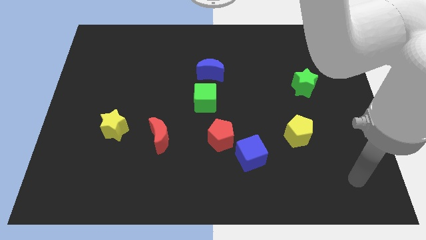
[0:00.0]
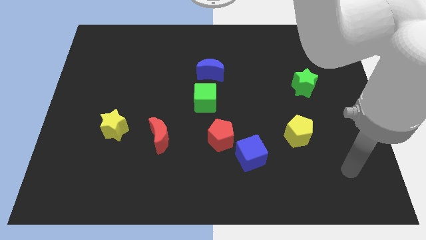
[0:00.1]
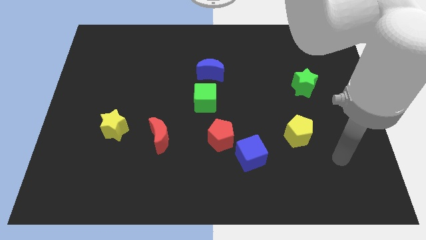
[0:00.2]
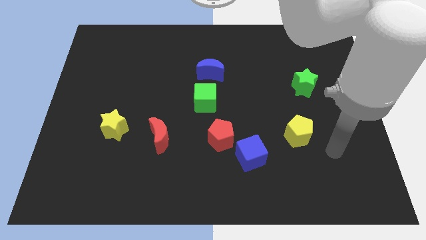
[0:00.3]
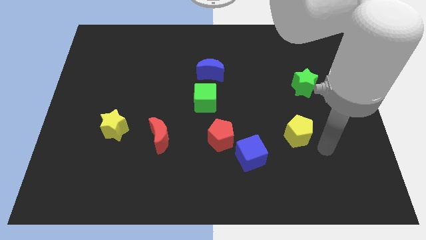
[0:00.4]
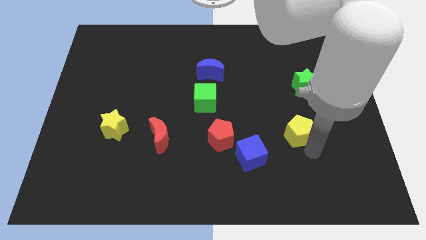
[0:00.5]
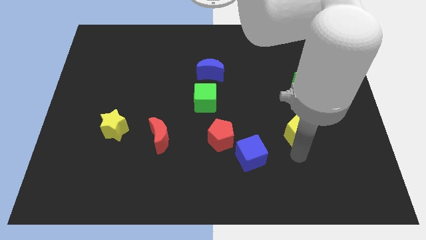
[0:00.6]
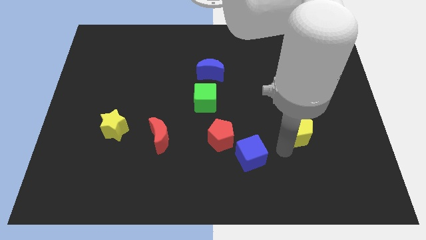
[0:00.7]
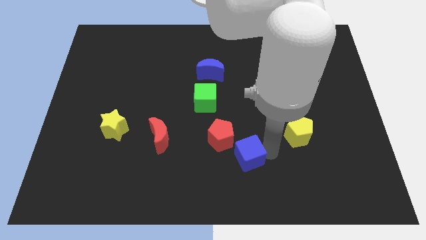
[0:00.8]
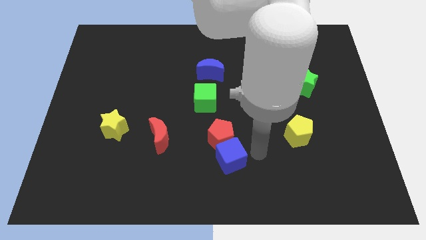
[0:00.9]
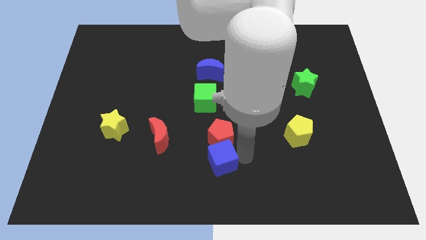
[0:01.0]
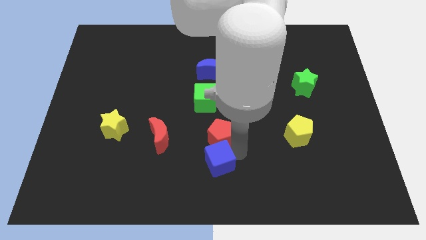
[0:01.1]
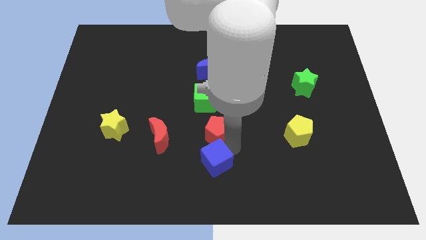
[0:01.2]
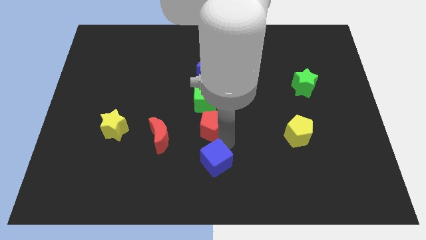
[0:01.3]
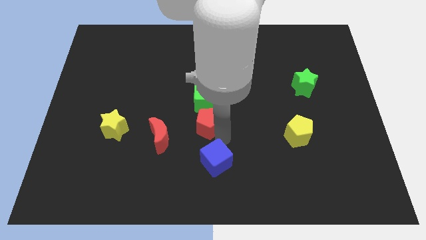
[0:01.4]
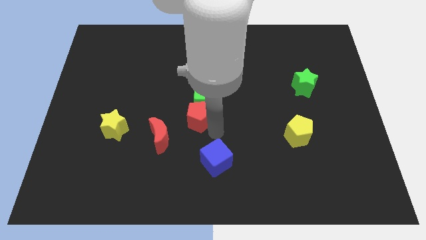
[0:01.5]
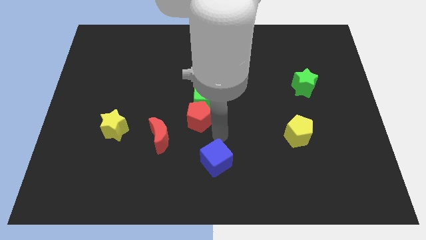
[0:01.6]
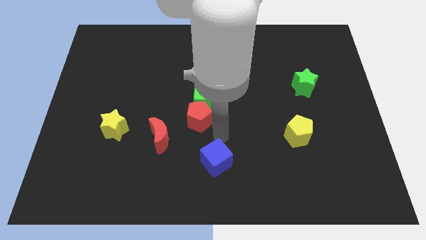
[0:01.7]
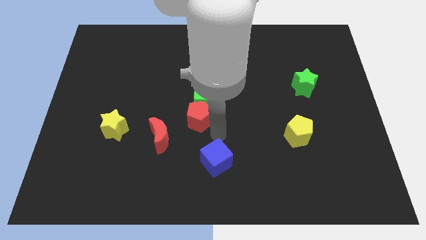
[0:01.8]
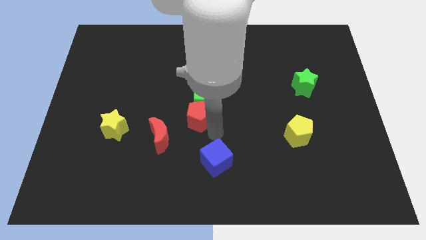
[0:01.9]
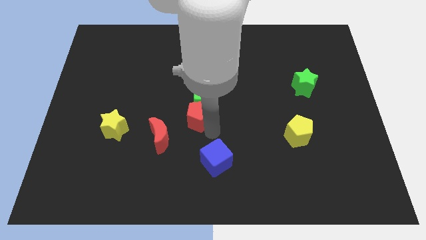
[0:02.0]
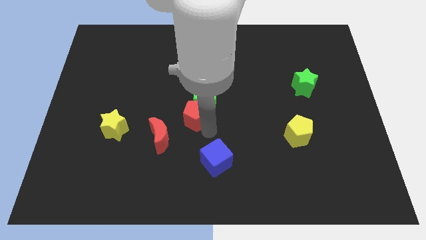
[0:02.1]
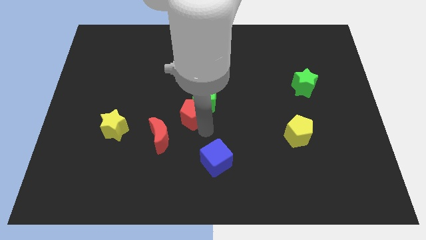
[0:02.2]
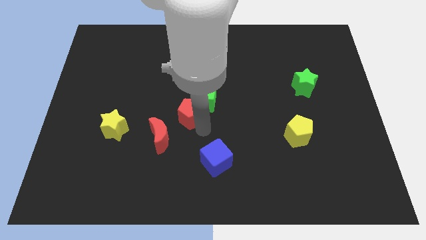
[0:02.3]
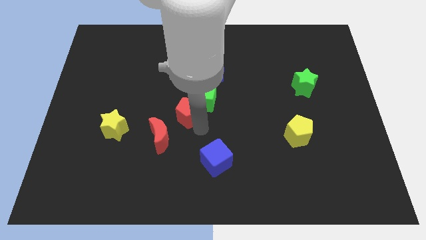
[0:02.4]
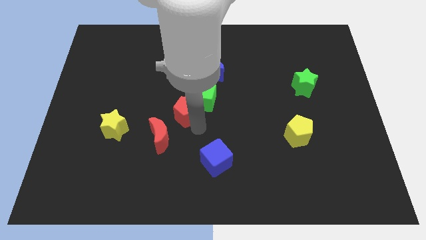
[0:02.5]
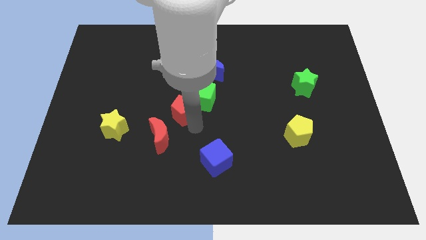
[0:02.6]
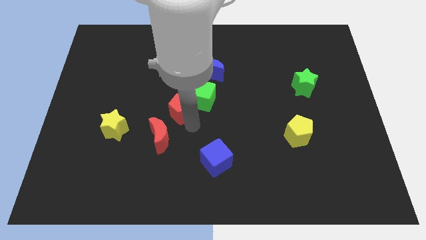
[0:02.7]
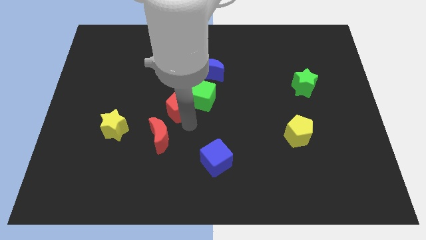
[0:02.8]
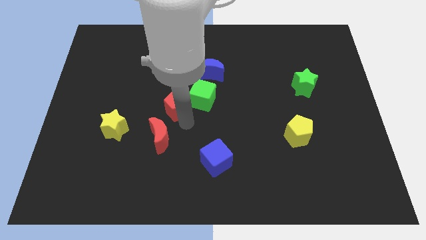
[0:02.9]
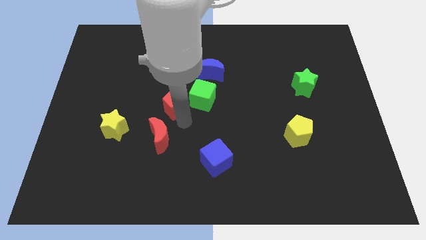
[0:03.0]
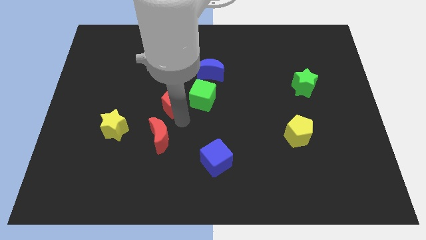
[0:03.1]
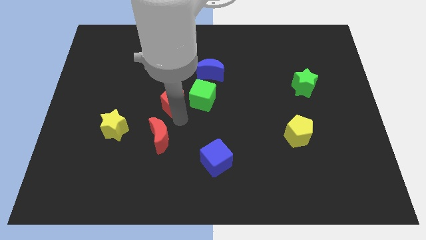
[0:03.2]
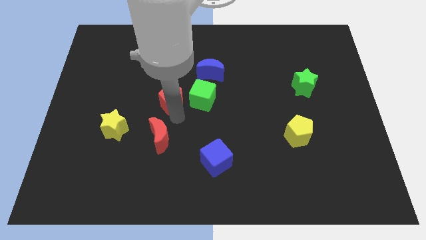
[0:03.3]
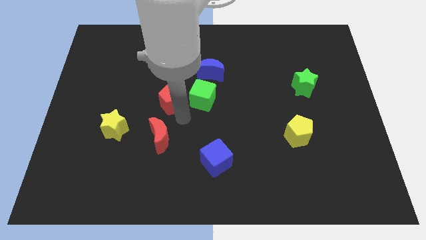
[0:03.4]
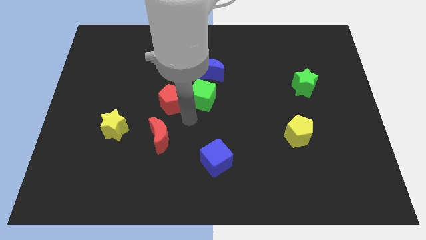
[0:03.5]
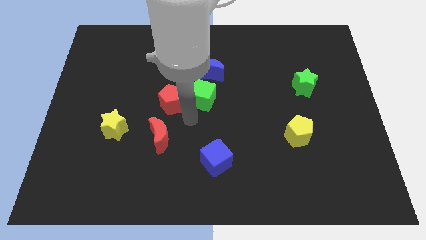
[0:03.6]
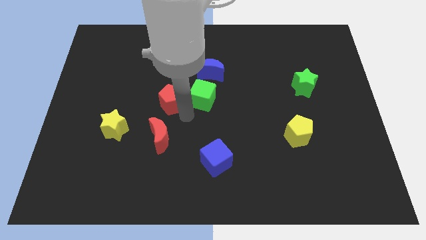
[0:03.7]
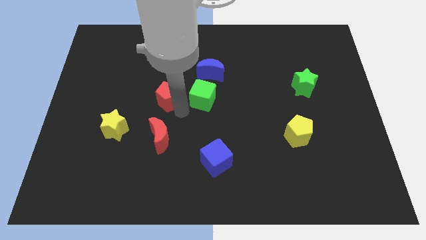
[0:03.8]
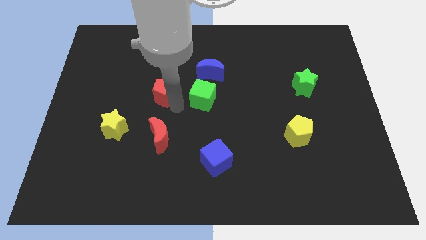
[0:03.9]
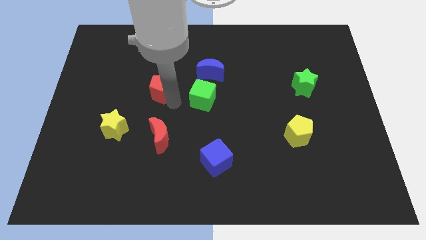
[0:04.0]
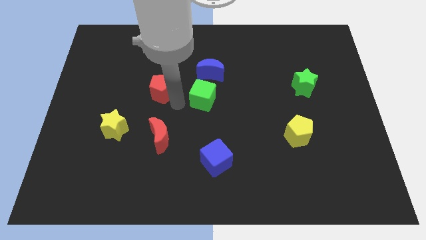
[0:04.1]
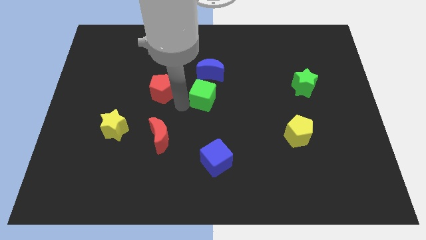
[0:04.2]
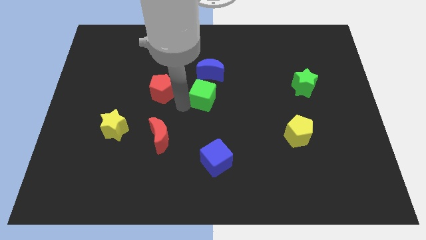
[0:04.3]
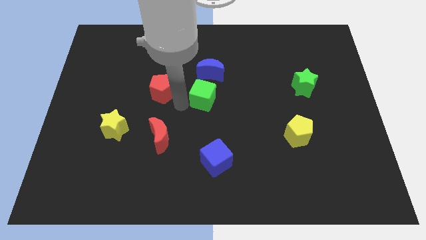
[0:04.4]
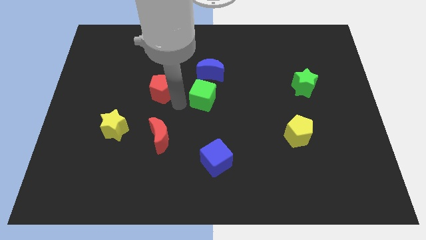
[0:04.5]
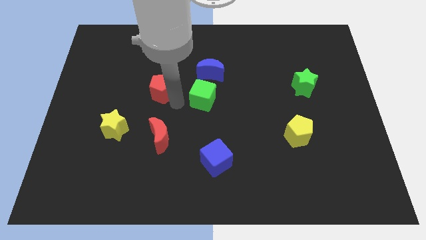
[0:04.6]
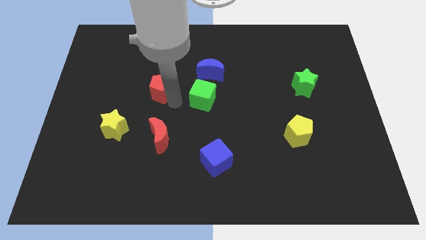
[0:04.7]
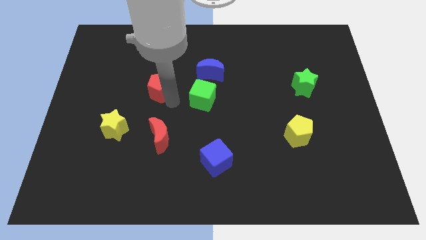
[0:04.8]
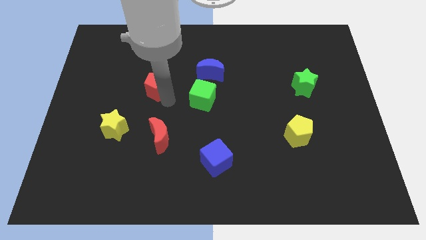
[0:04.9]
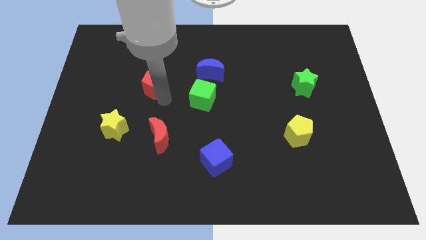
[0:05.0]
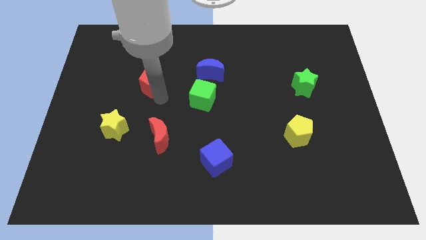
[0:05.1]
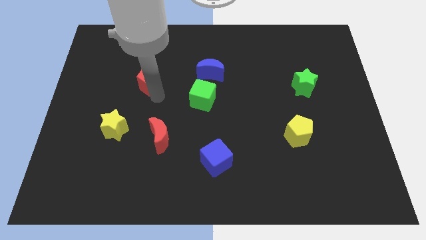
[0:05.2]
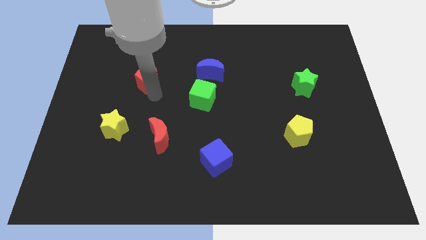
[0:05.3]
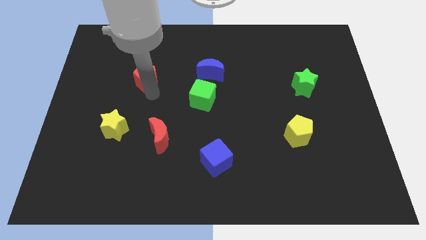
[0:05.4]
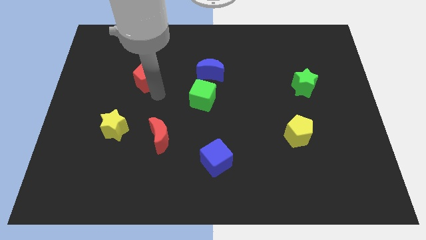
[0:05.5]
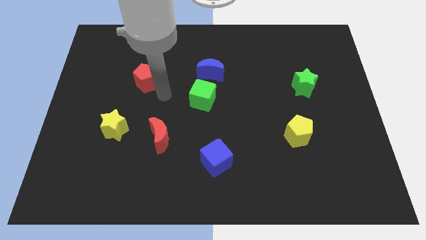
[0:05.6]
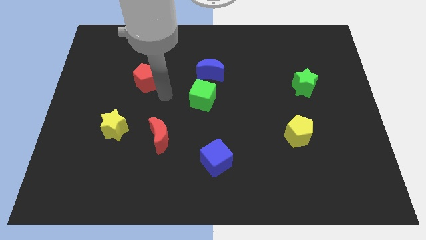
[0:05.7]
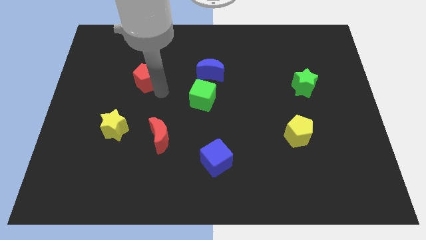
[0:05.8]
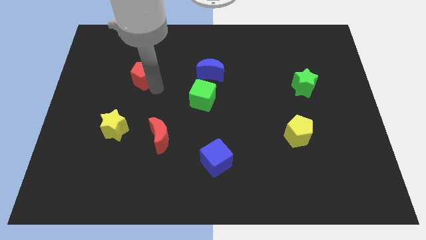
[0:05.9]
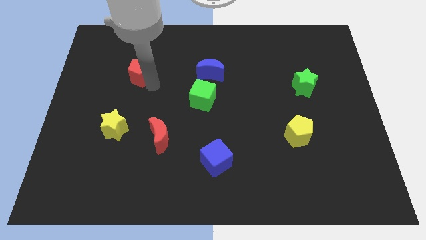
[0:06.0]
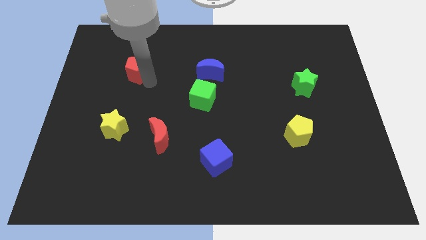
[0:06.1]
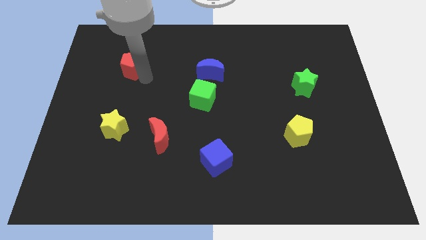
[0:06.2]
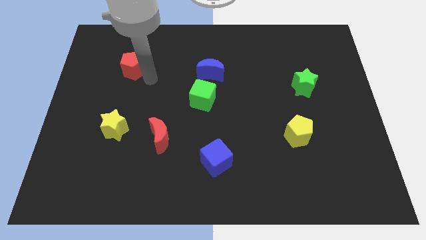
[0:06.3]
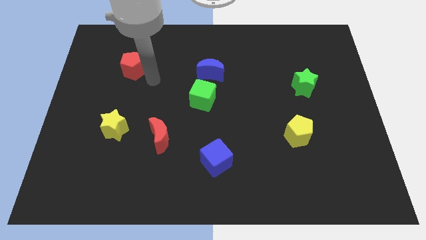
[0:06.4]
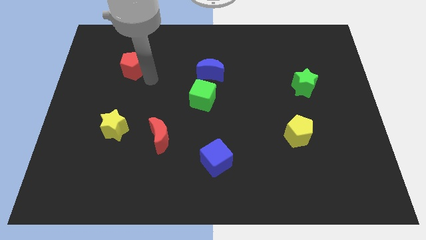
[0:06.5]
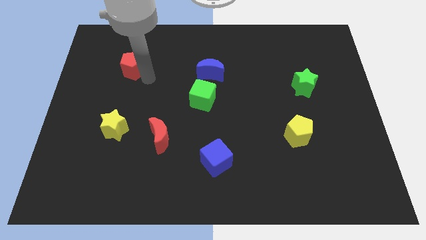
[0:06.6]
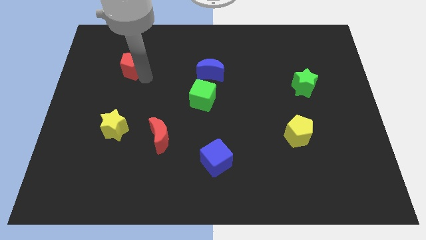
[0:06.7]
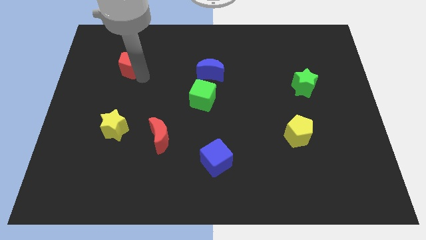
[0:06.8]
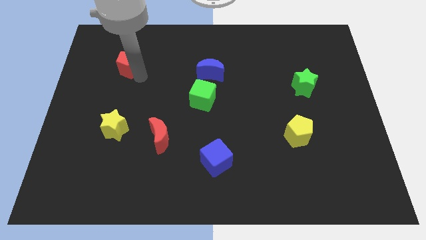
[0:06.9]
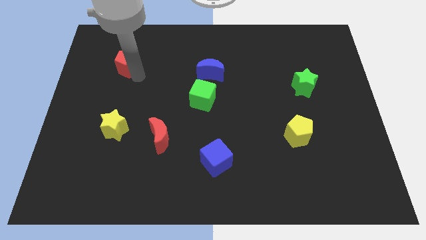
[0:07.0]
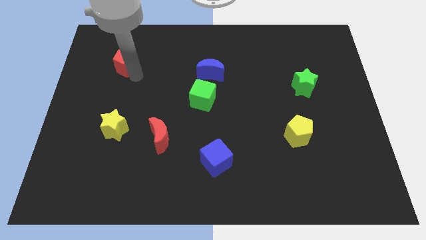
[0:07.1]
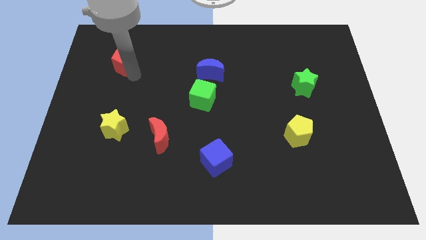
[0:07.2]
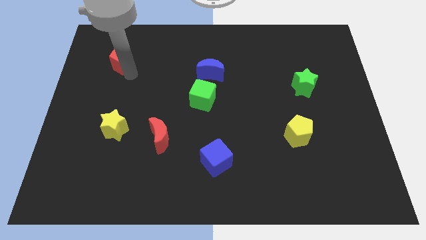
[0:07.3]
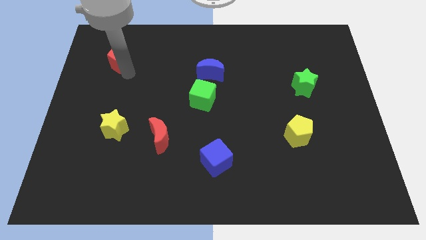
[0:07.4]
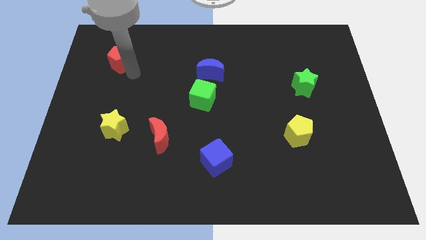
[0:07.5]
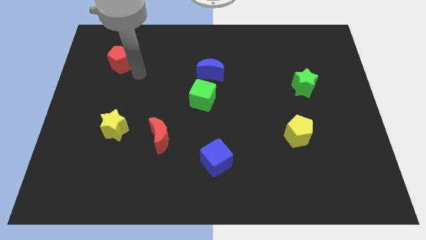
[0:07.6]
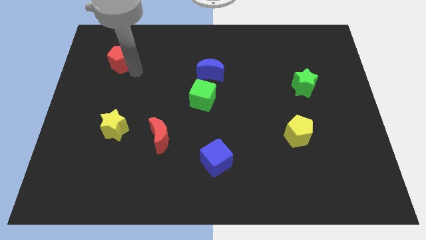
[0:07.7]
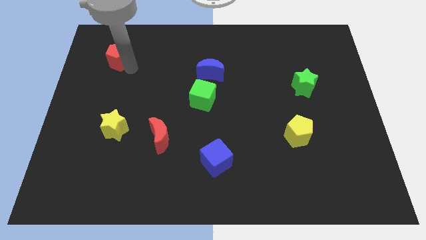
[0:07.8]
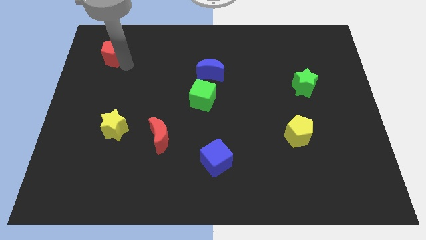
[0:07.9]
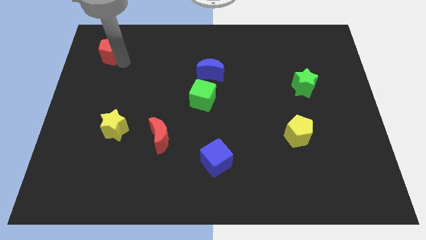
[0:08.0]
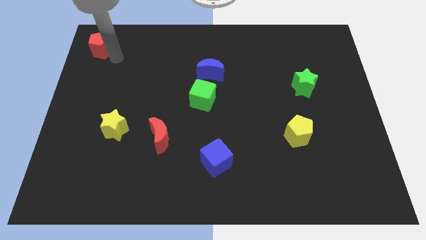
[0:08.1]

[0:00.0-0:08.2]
slide the red pentagon to the upper left corner
